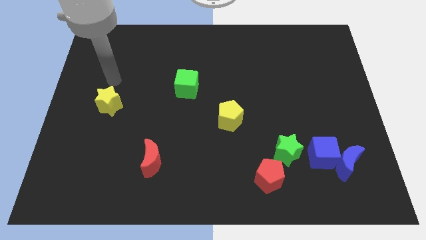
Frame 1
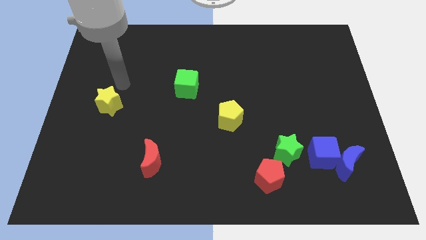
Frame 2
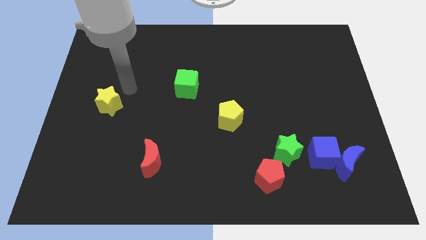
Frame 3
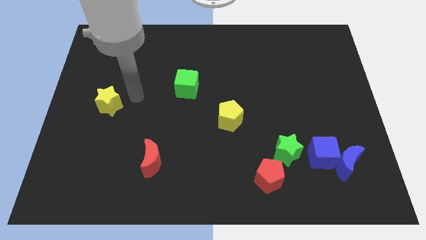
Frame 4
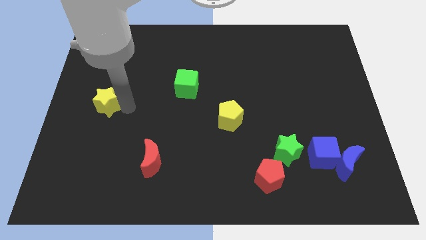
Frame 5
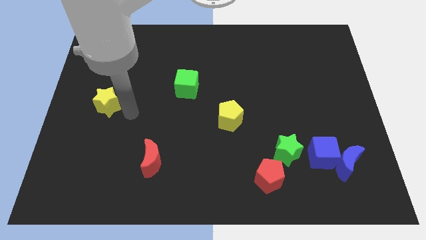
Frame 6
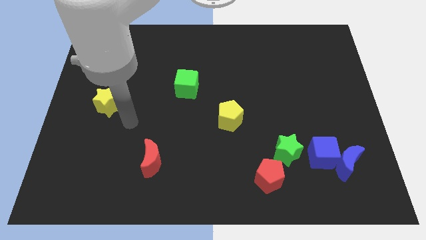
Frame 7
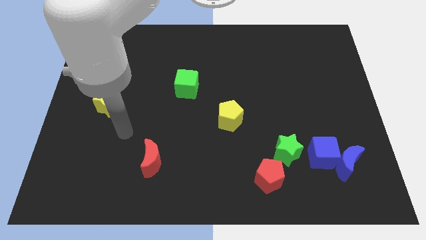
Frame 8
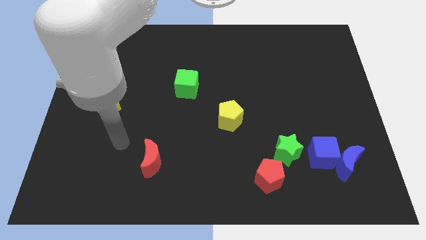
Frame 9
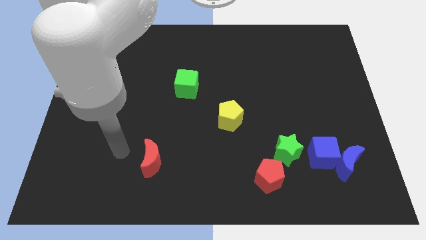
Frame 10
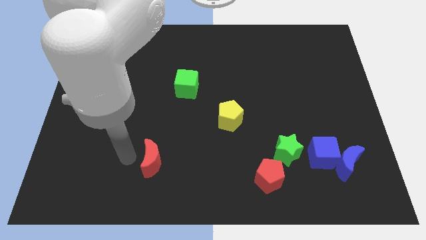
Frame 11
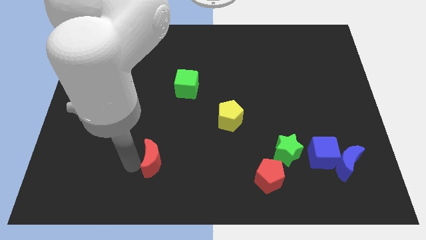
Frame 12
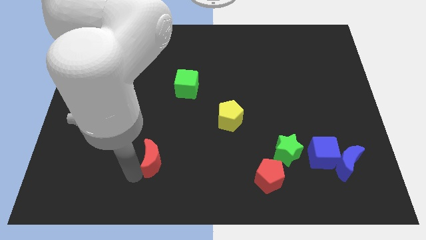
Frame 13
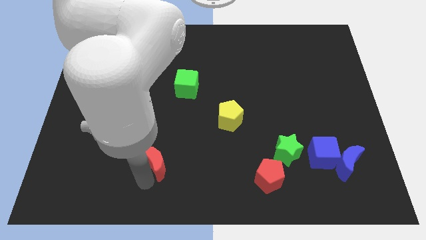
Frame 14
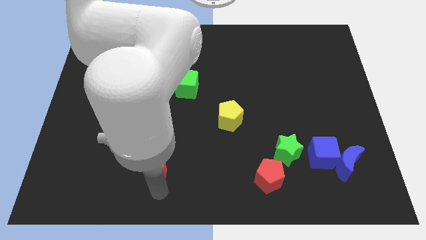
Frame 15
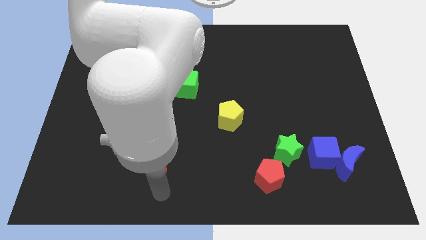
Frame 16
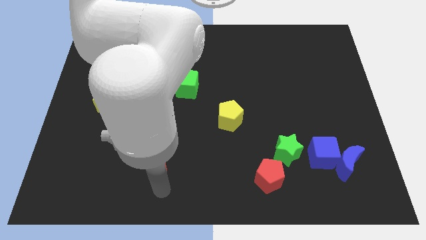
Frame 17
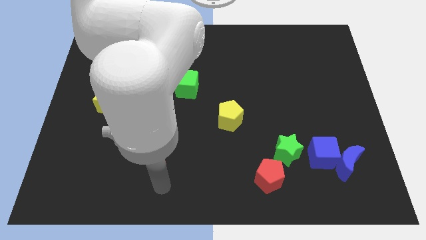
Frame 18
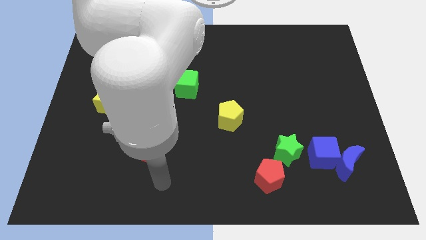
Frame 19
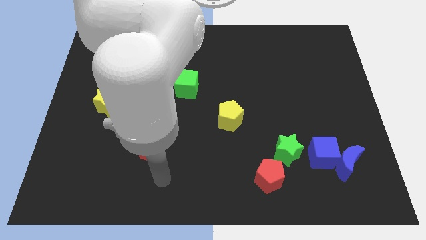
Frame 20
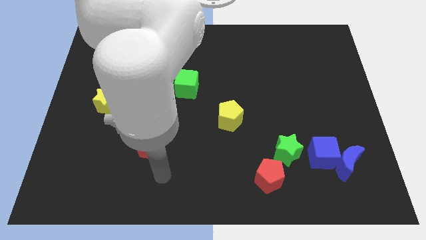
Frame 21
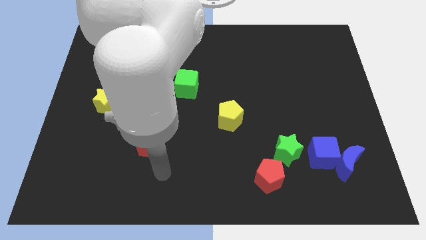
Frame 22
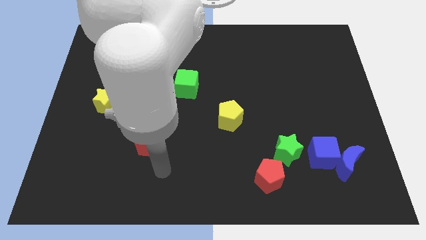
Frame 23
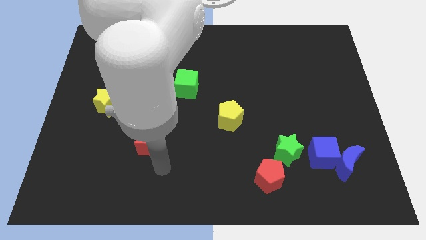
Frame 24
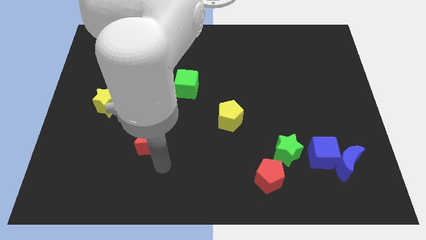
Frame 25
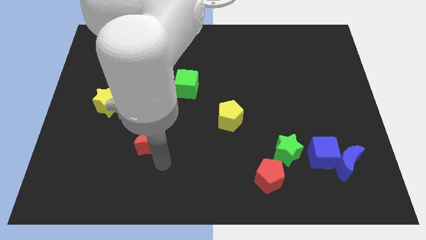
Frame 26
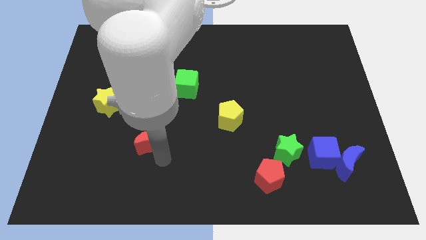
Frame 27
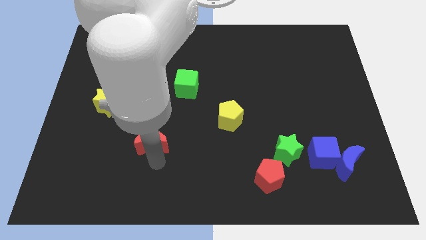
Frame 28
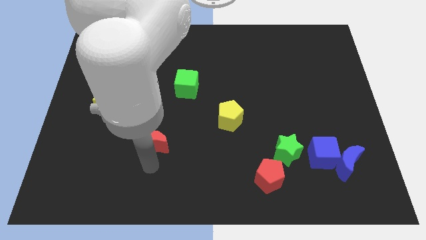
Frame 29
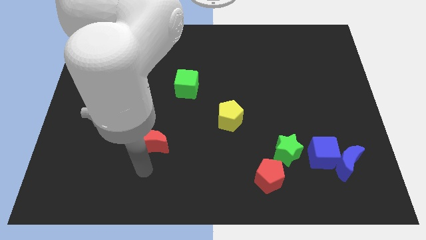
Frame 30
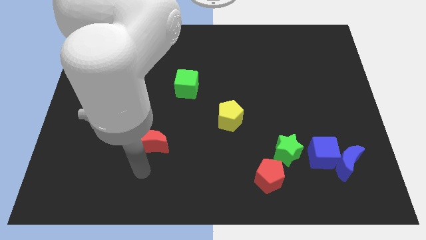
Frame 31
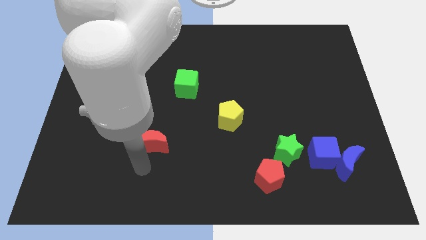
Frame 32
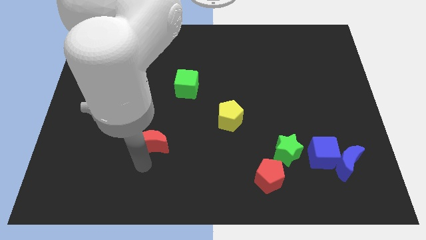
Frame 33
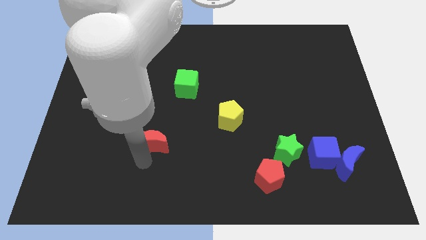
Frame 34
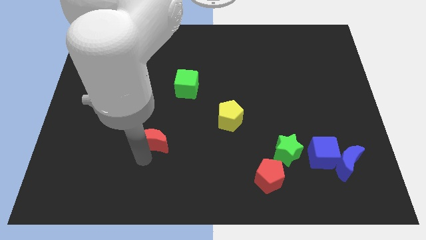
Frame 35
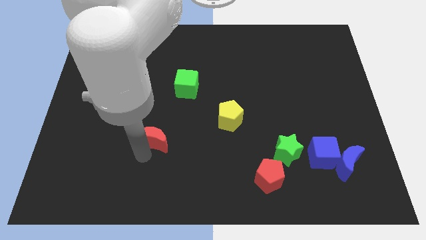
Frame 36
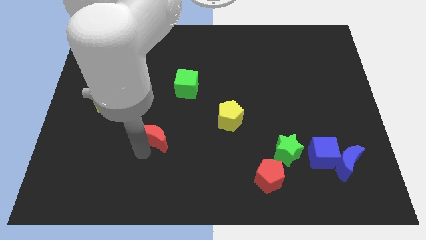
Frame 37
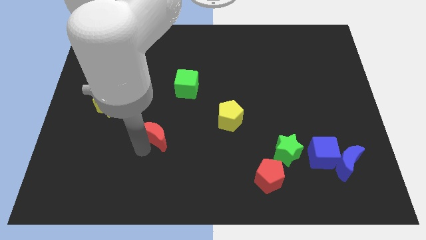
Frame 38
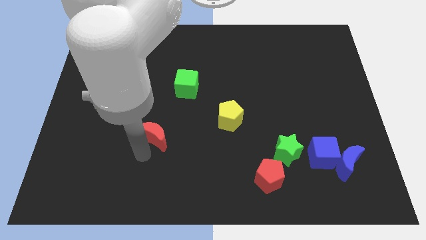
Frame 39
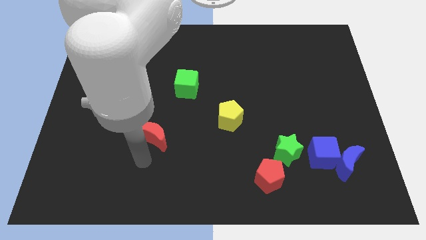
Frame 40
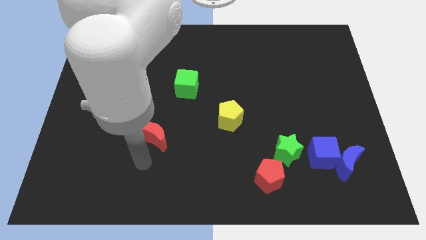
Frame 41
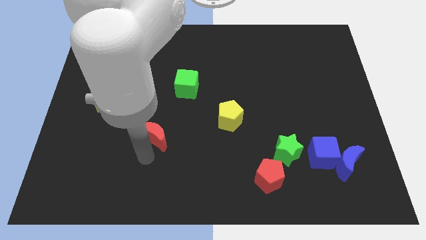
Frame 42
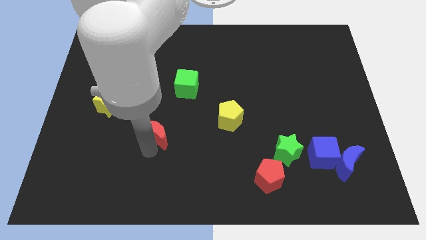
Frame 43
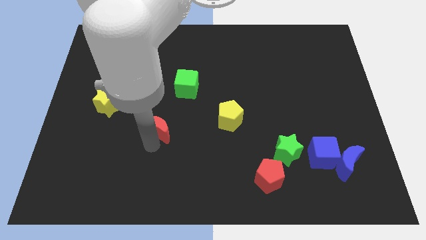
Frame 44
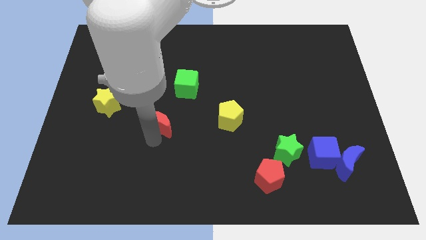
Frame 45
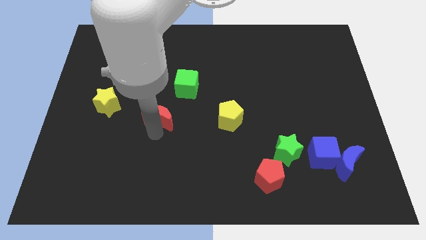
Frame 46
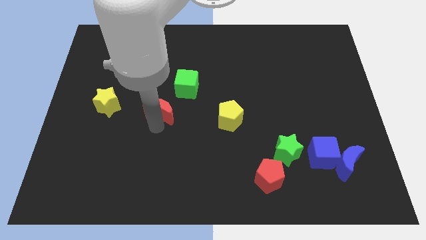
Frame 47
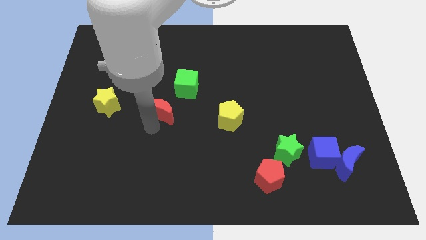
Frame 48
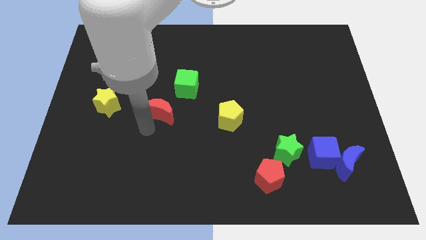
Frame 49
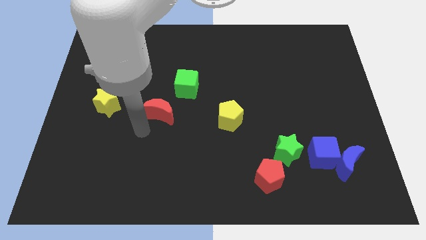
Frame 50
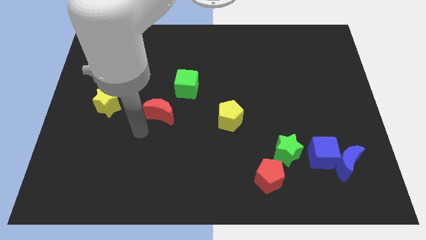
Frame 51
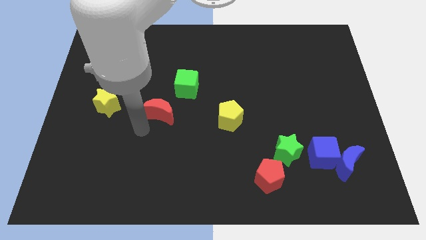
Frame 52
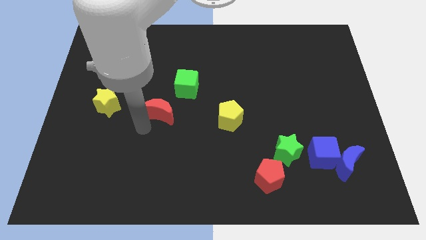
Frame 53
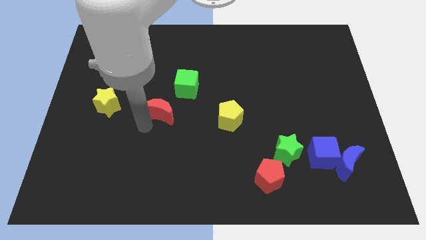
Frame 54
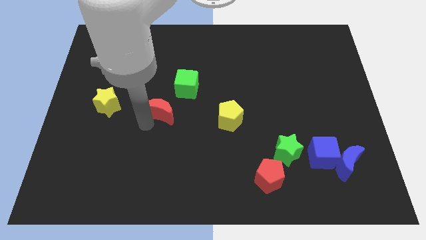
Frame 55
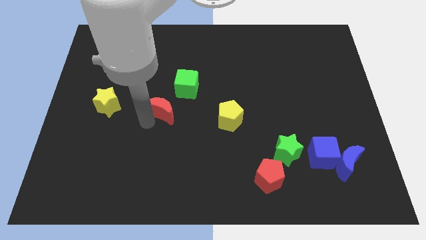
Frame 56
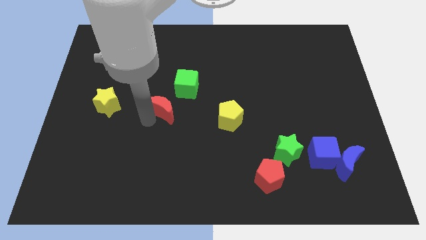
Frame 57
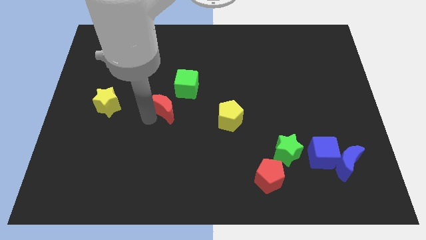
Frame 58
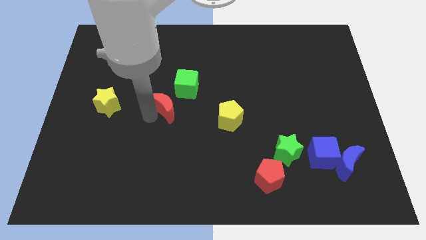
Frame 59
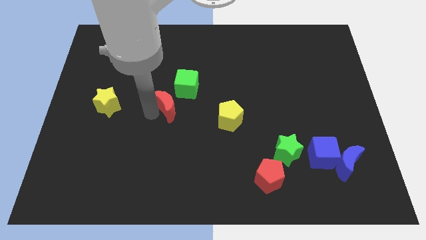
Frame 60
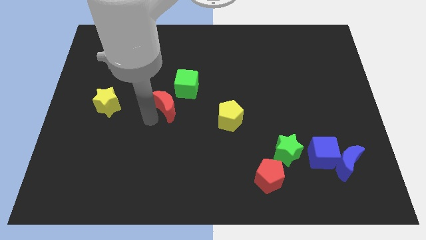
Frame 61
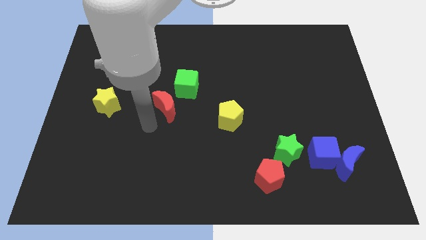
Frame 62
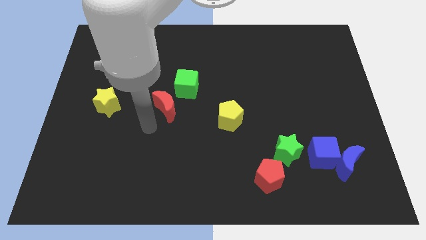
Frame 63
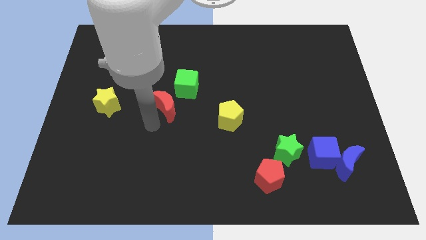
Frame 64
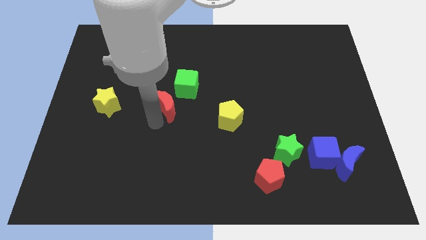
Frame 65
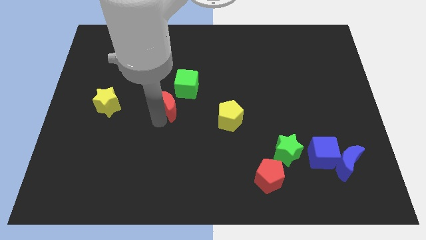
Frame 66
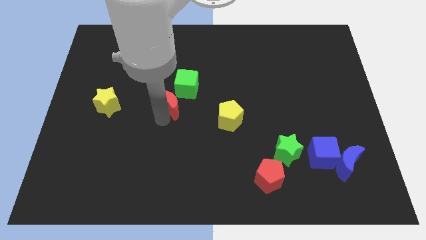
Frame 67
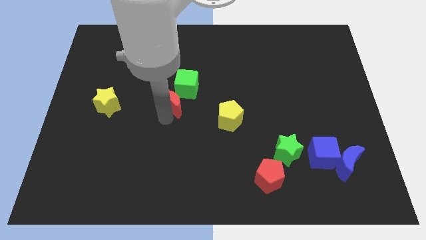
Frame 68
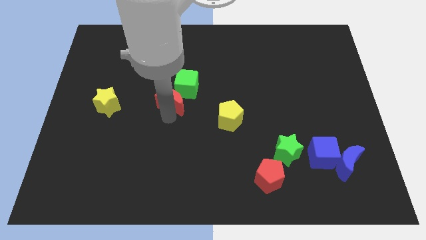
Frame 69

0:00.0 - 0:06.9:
push the red moon close to the green cube
